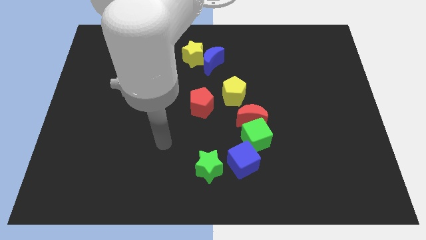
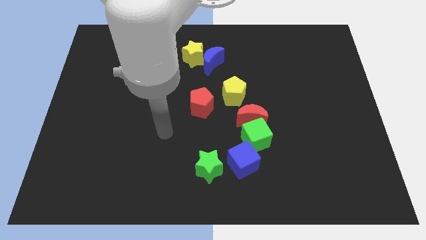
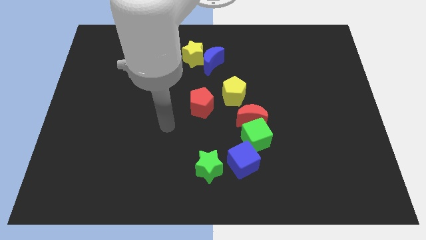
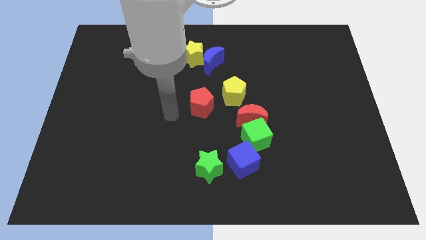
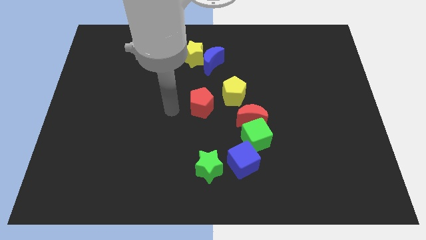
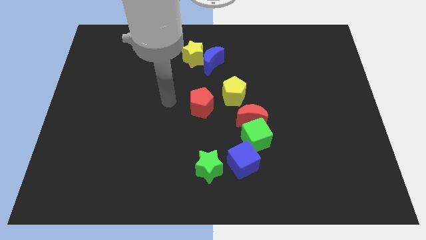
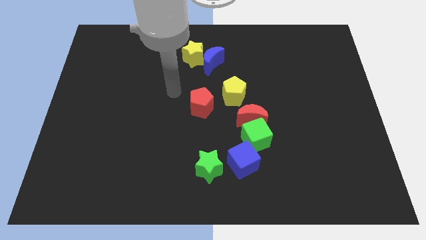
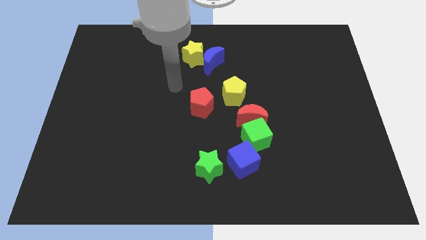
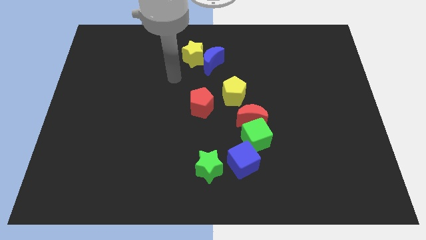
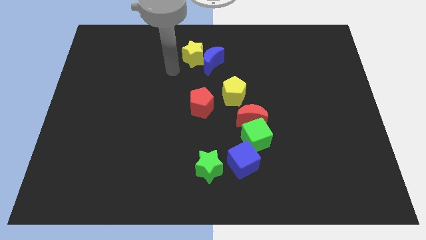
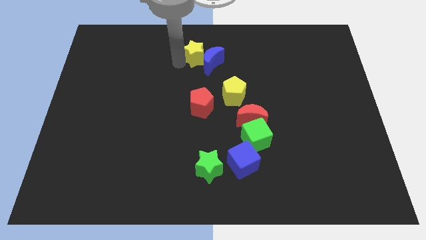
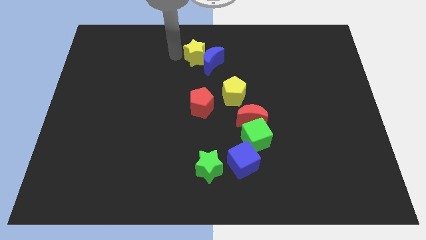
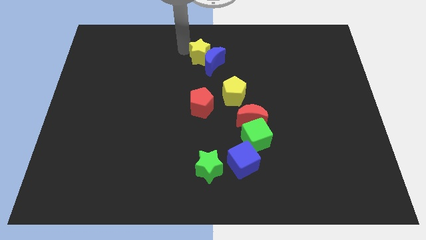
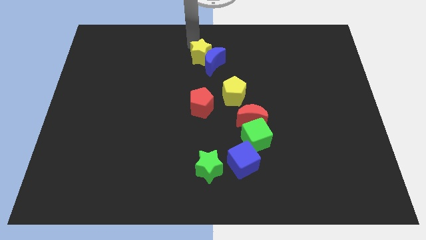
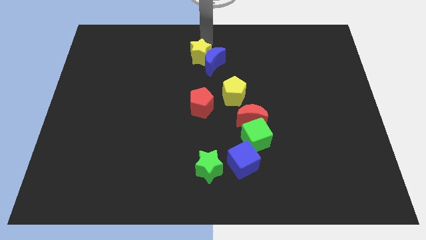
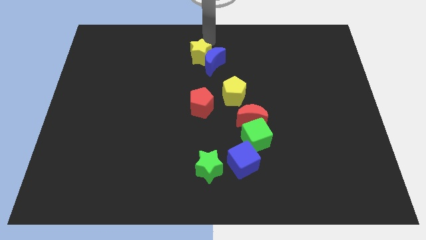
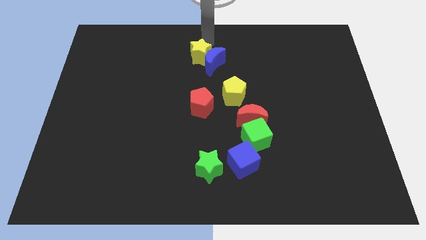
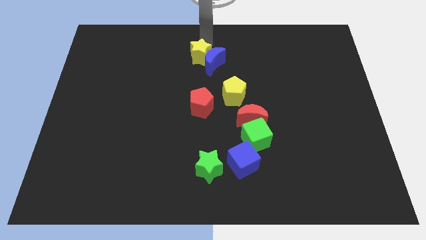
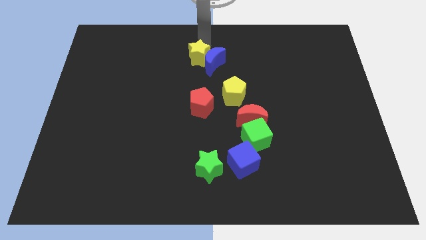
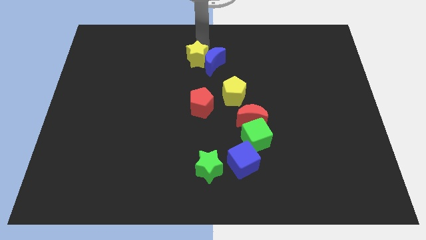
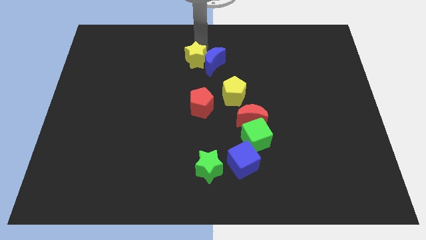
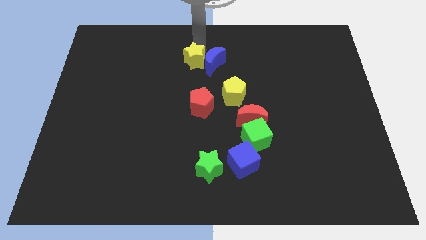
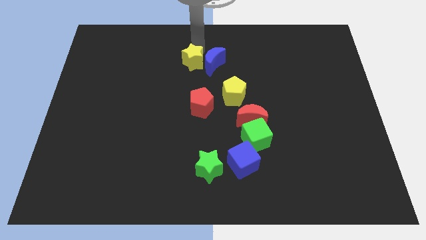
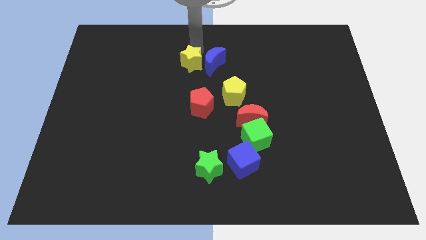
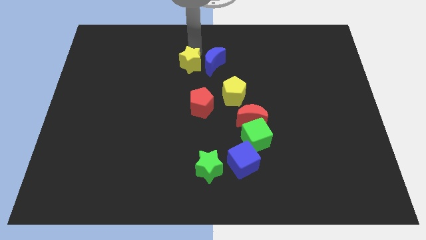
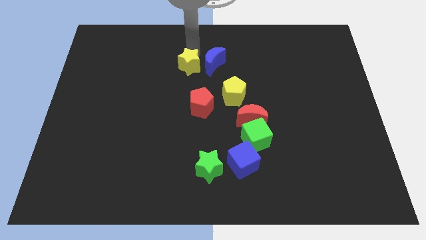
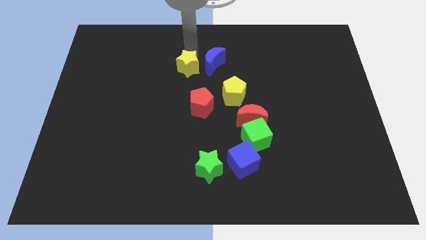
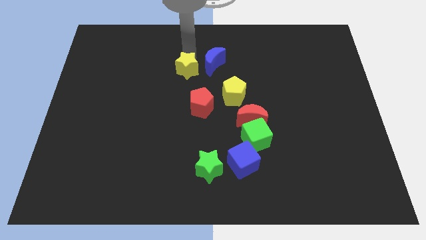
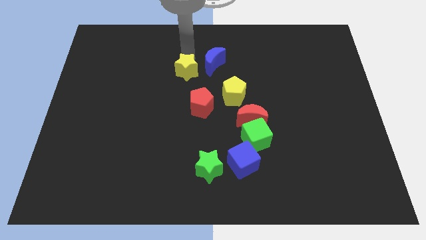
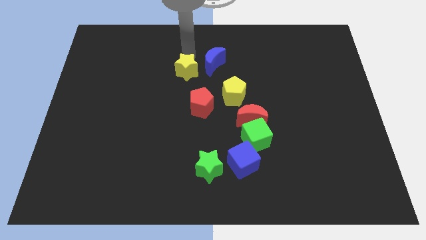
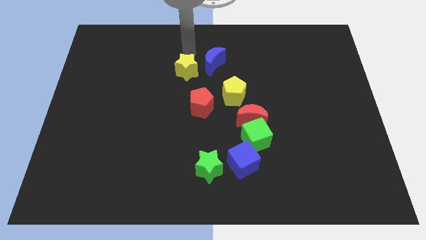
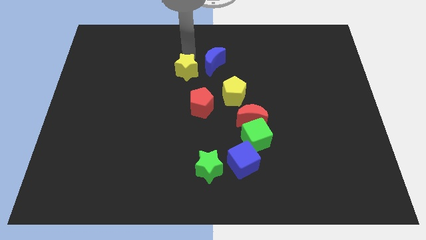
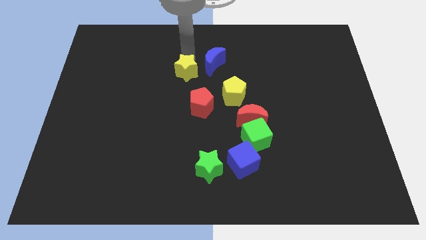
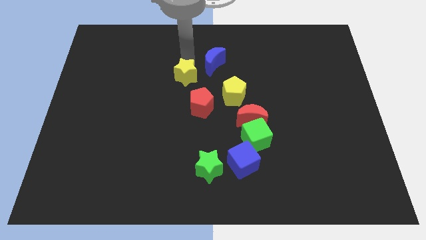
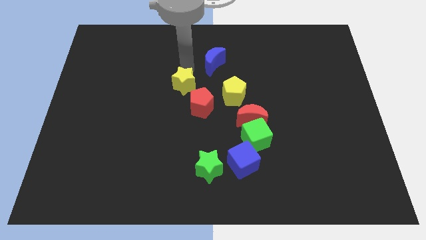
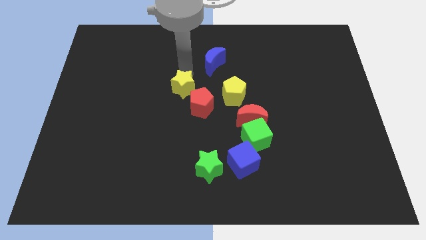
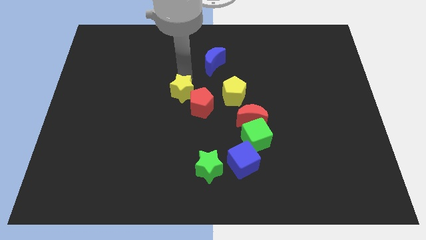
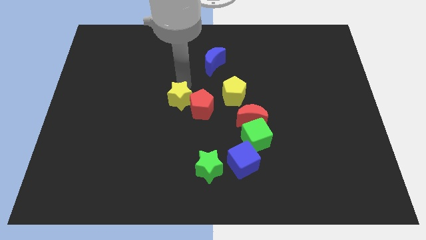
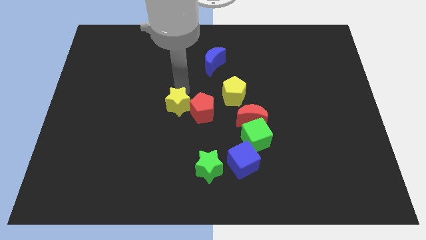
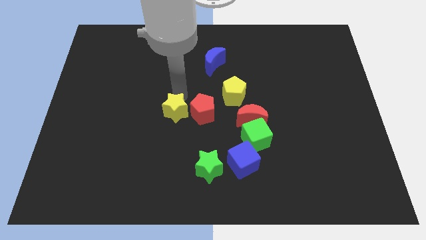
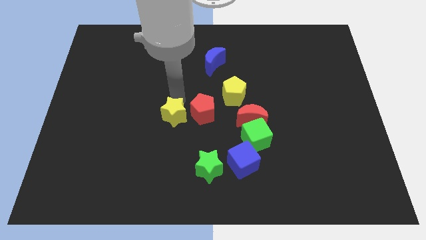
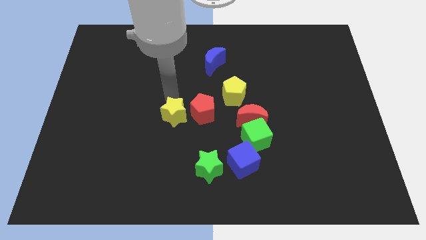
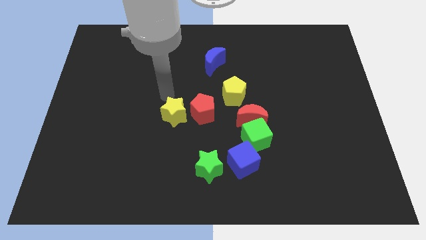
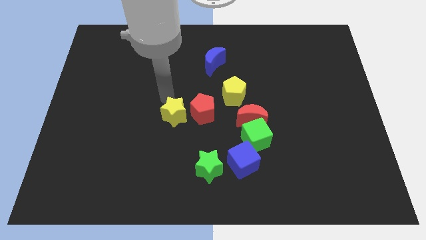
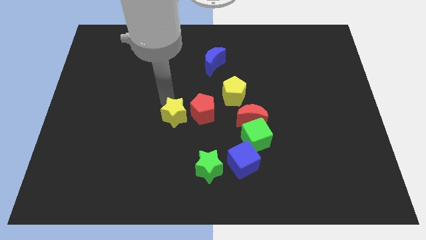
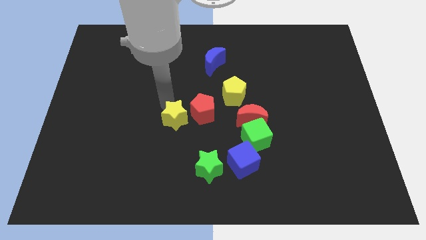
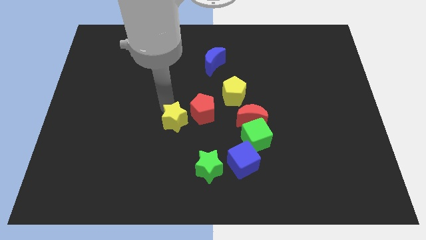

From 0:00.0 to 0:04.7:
move the yellow star downwards

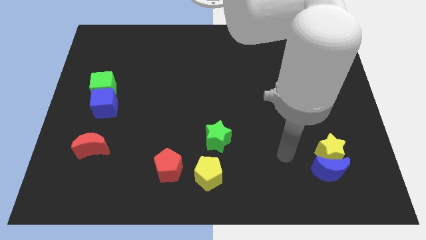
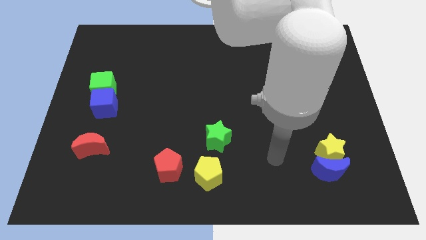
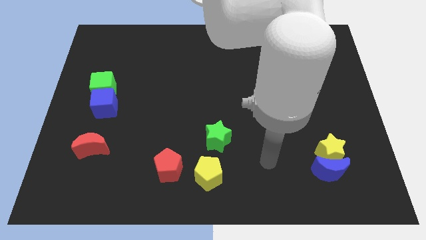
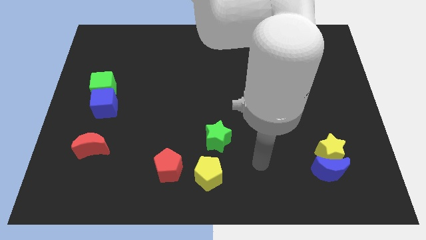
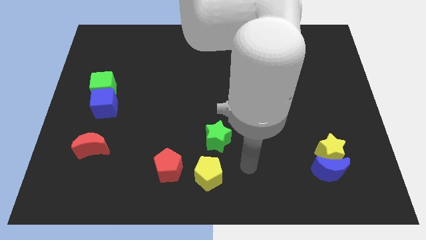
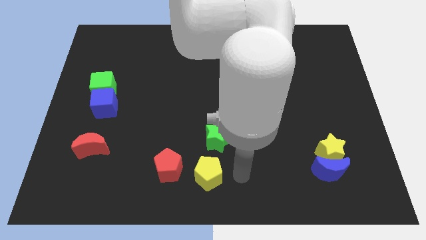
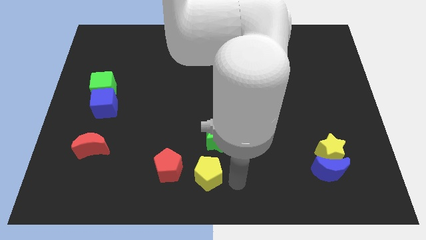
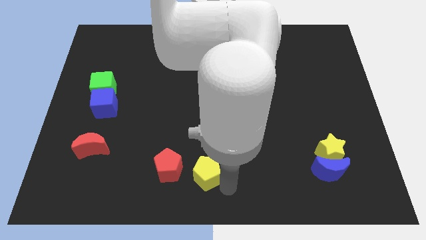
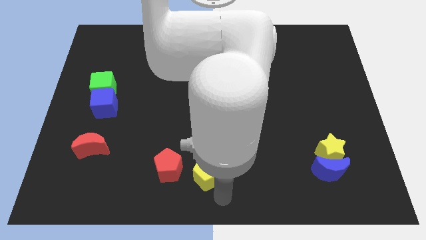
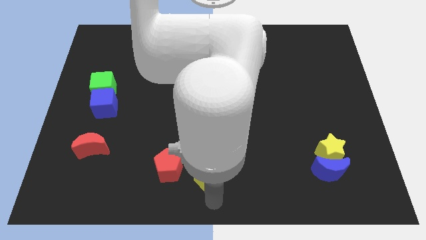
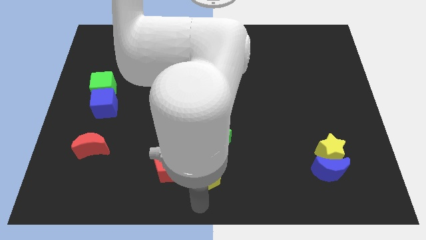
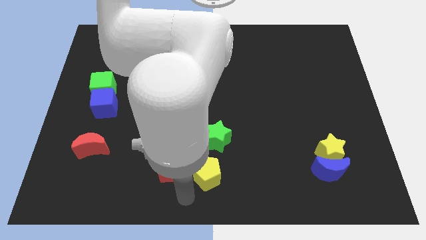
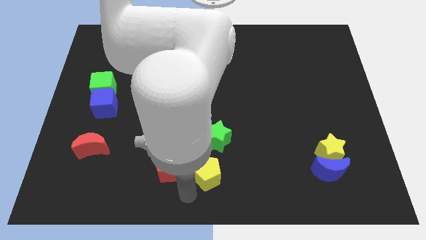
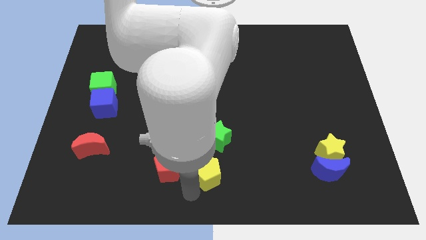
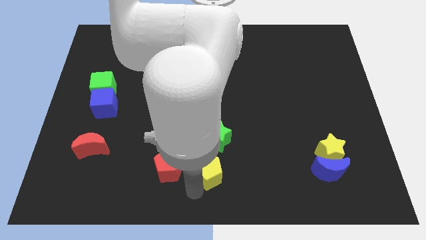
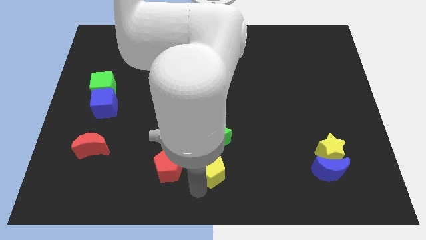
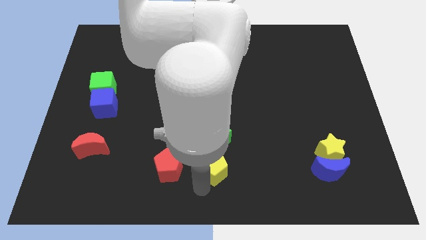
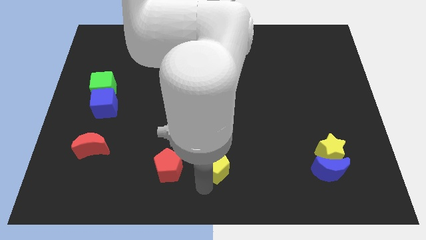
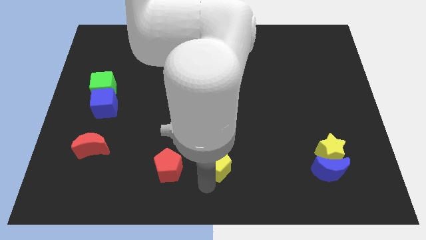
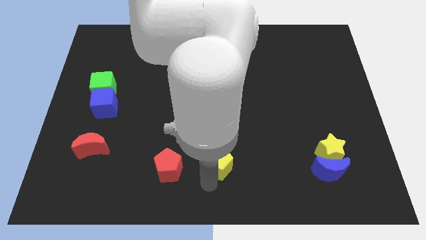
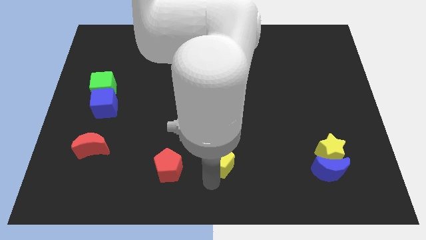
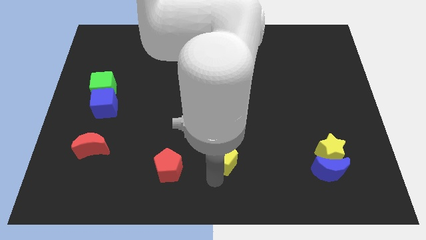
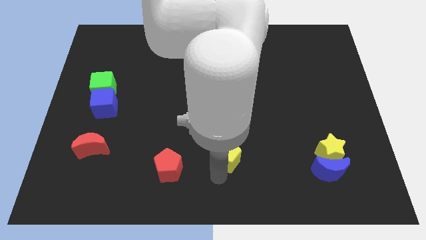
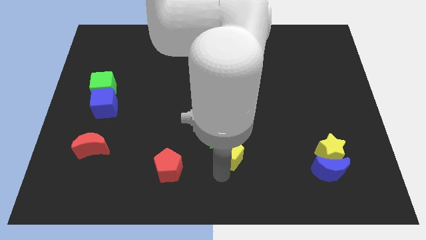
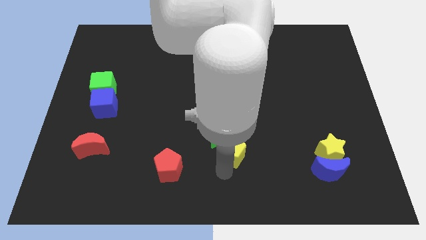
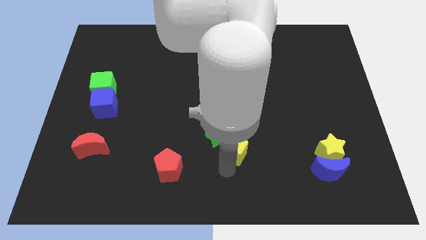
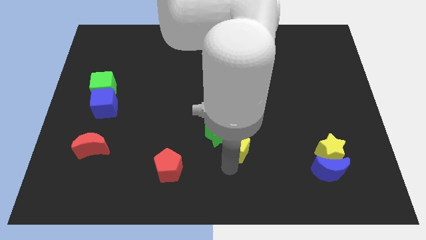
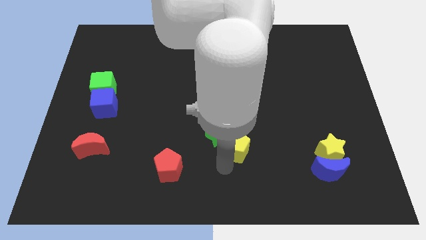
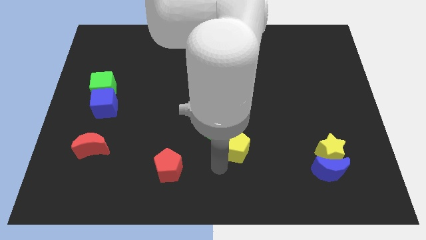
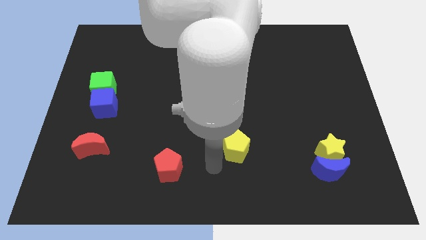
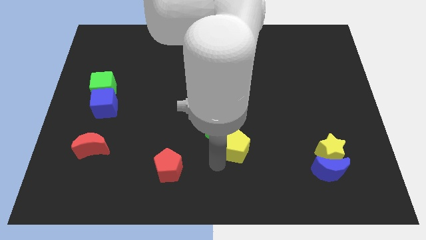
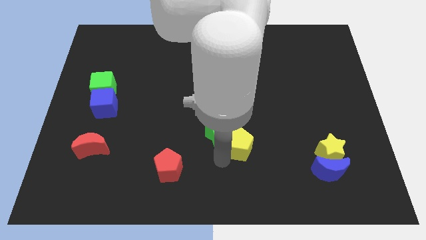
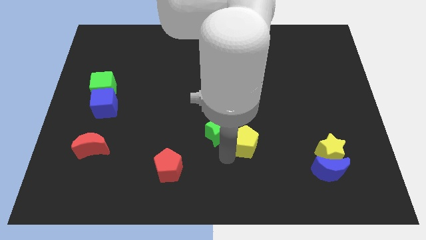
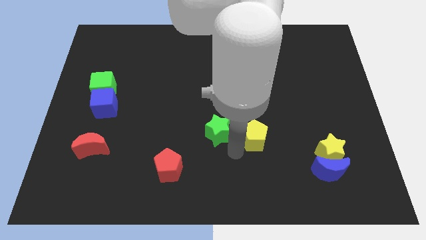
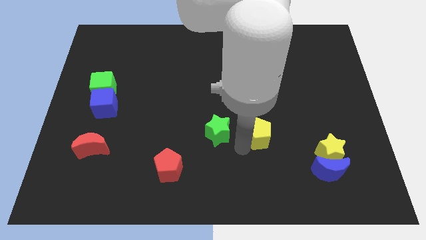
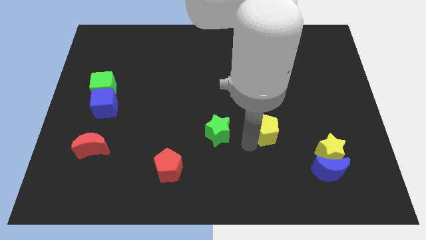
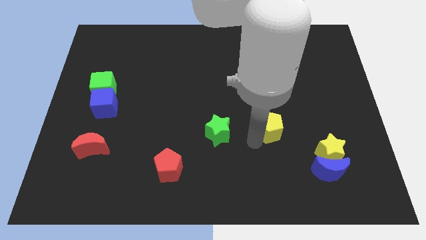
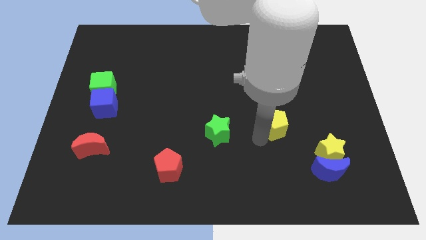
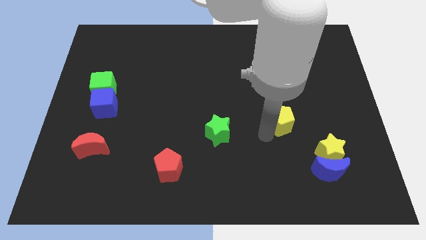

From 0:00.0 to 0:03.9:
move the yellow pentagon up and right
